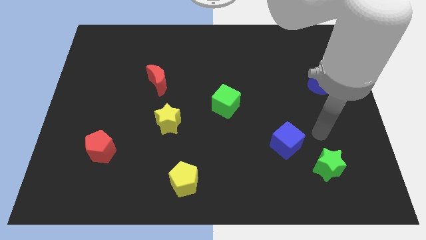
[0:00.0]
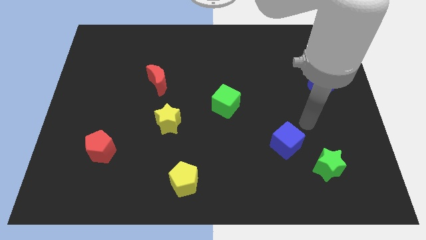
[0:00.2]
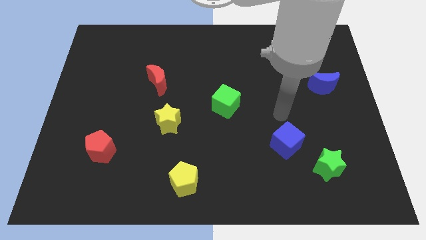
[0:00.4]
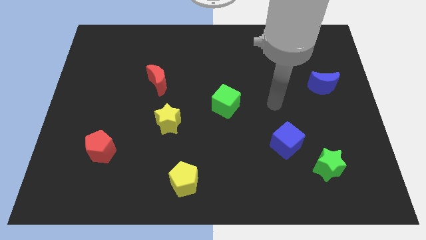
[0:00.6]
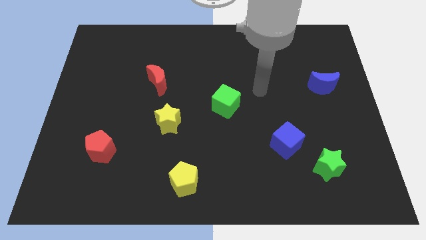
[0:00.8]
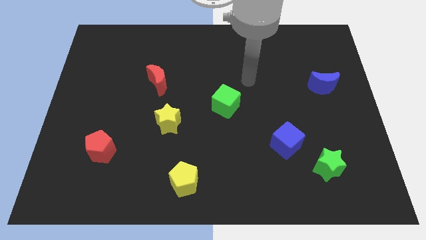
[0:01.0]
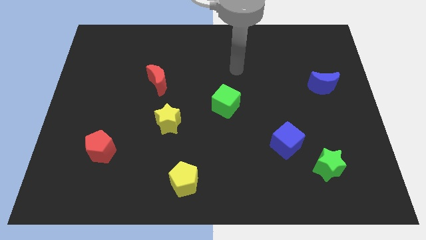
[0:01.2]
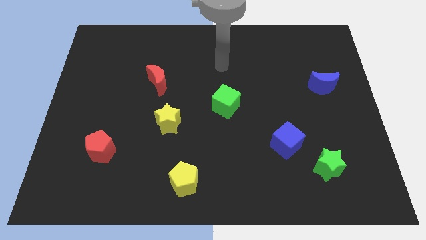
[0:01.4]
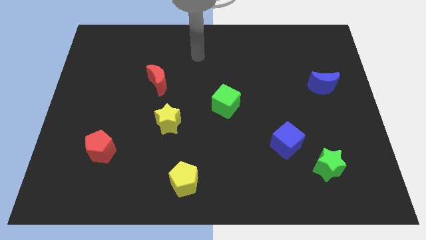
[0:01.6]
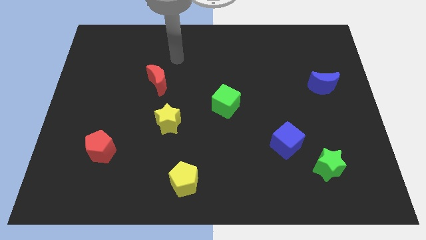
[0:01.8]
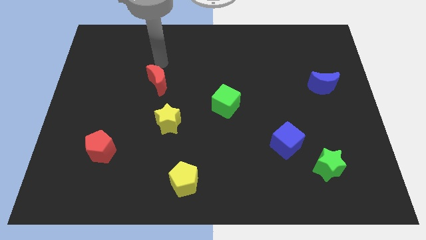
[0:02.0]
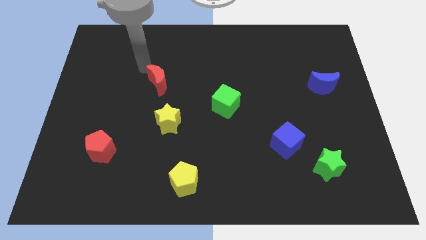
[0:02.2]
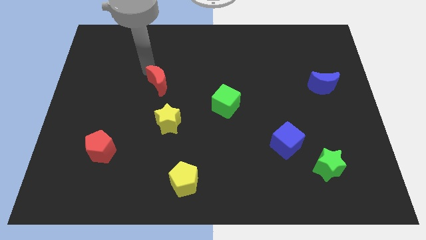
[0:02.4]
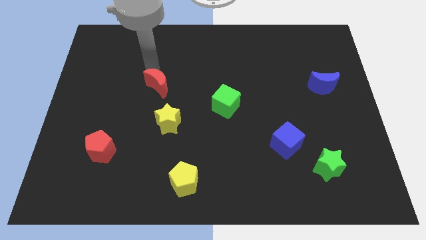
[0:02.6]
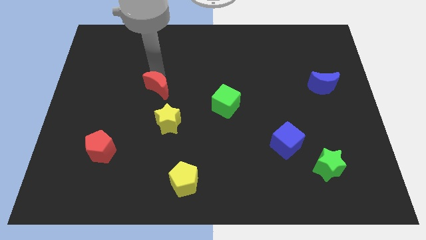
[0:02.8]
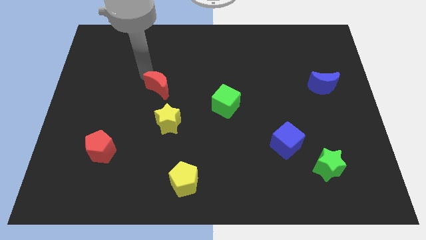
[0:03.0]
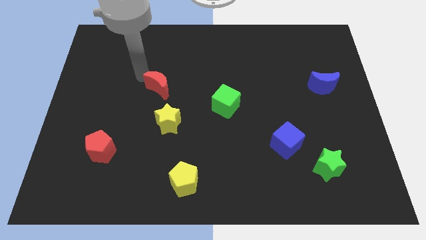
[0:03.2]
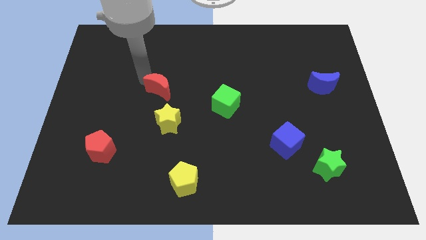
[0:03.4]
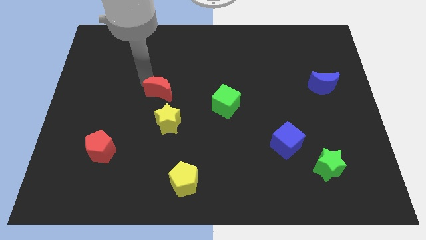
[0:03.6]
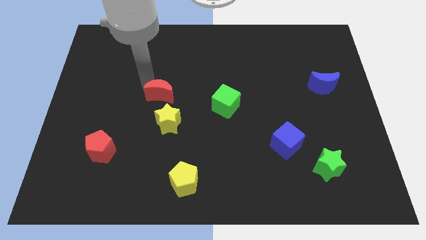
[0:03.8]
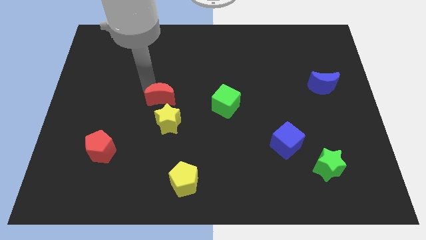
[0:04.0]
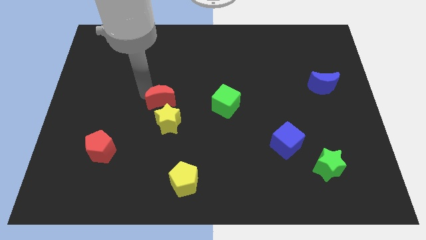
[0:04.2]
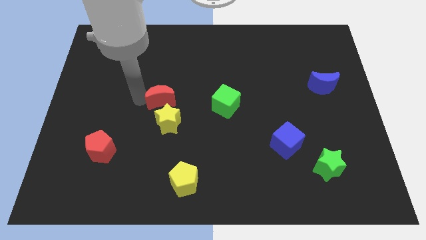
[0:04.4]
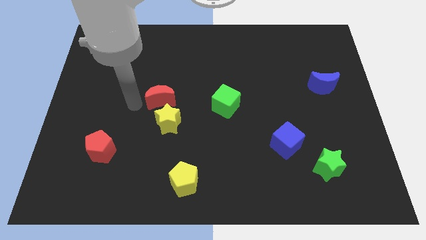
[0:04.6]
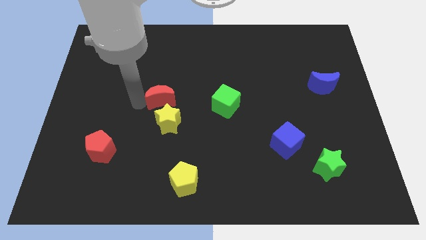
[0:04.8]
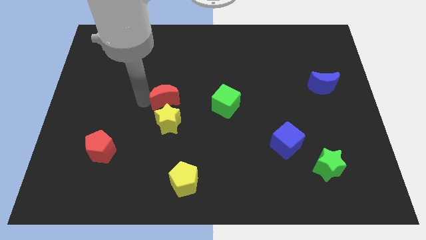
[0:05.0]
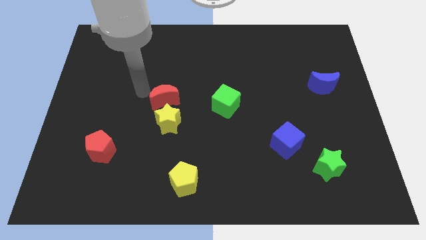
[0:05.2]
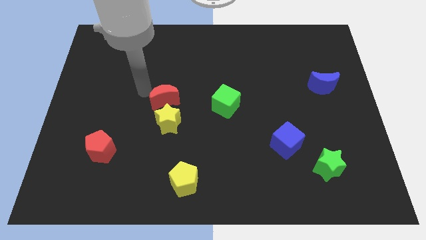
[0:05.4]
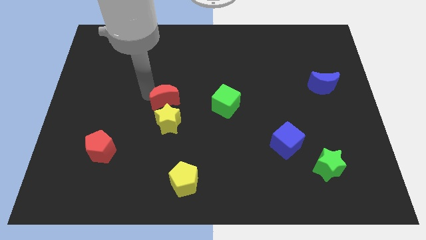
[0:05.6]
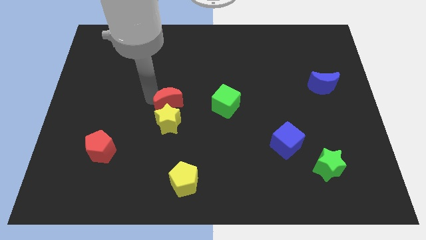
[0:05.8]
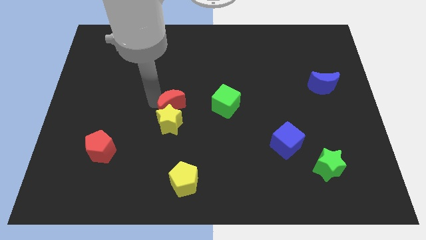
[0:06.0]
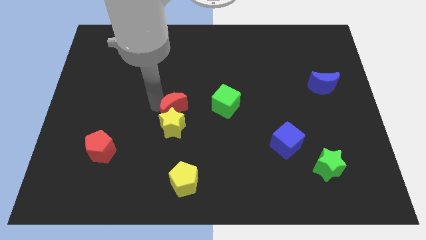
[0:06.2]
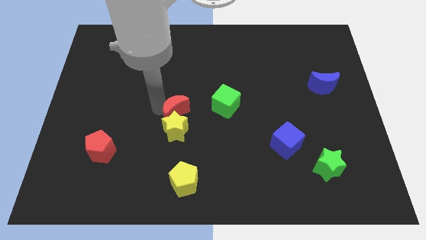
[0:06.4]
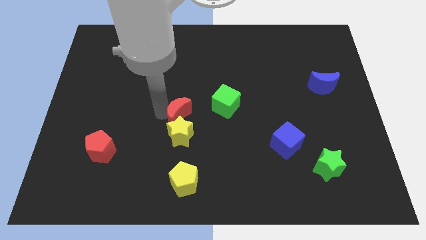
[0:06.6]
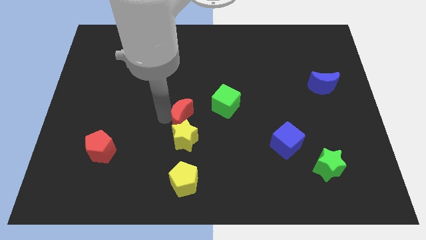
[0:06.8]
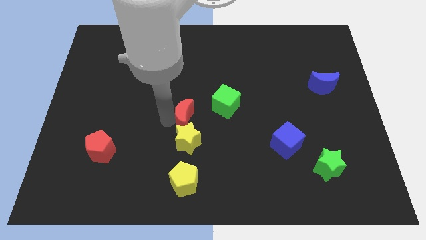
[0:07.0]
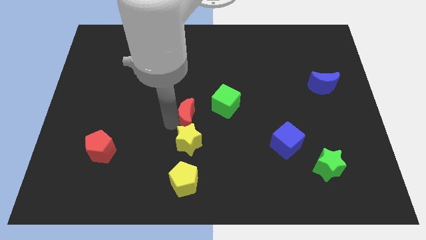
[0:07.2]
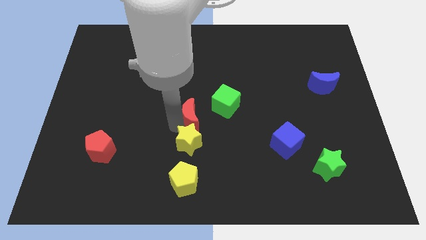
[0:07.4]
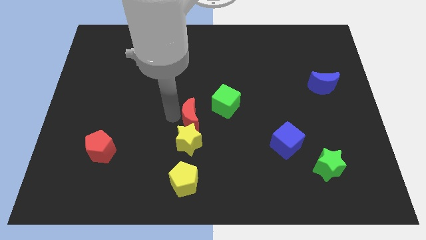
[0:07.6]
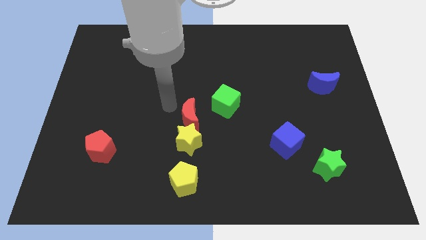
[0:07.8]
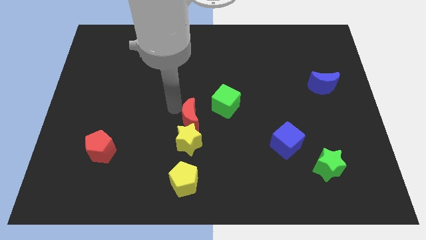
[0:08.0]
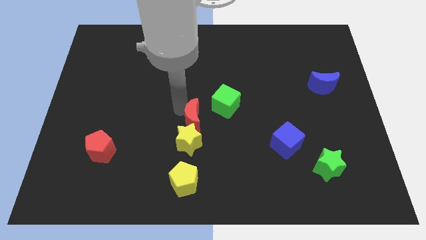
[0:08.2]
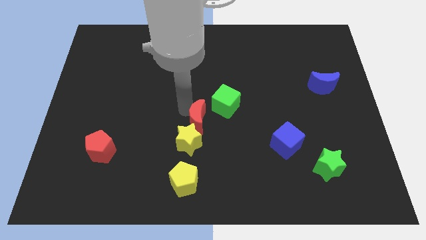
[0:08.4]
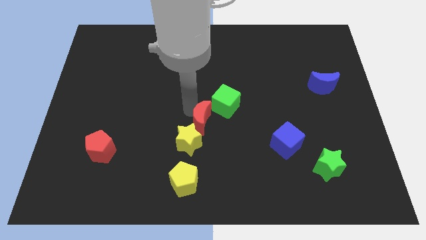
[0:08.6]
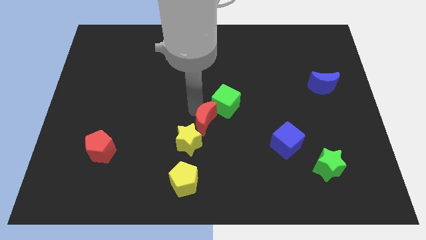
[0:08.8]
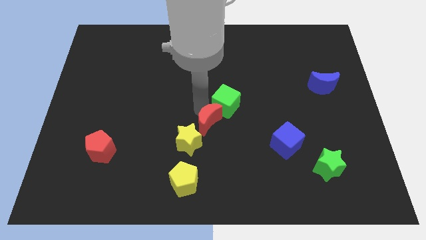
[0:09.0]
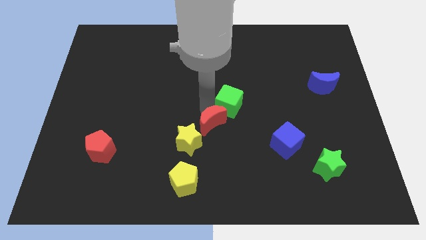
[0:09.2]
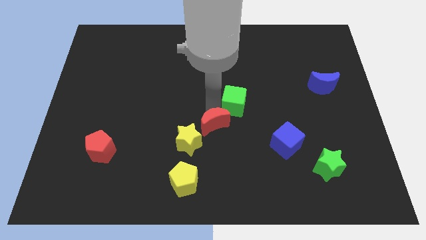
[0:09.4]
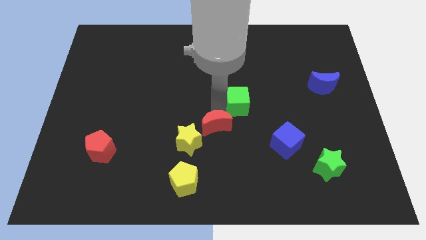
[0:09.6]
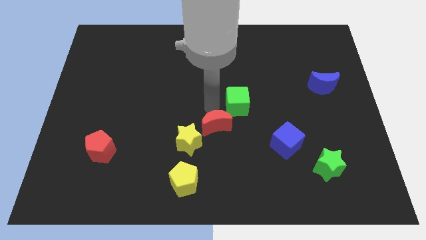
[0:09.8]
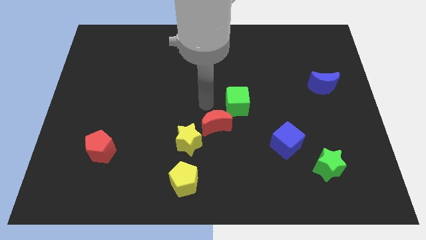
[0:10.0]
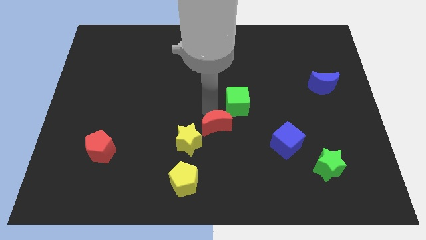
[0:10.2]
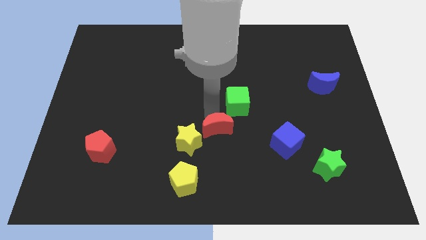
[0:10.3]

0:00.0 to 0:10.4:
slide the red moon downwards and to the right diagonally

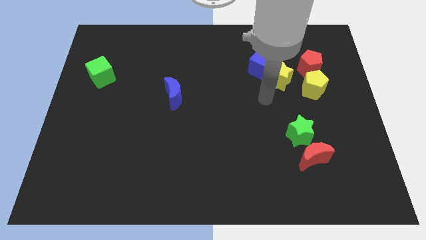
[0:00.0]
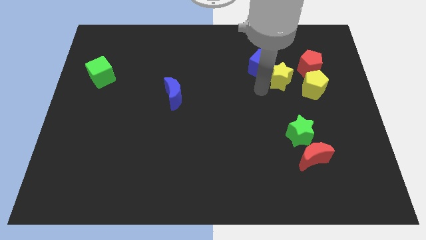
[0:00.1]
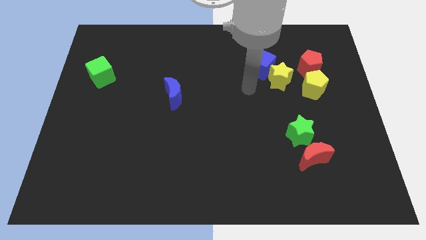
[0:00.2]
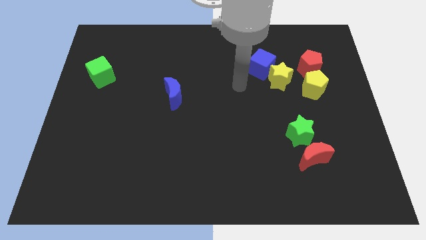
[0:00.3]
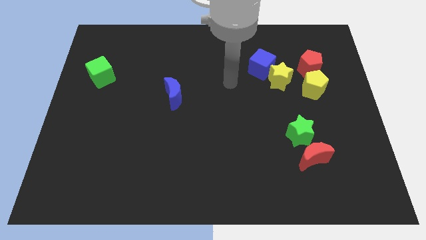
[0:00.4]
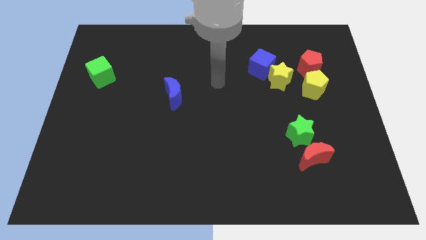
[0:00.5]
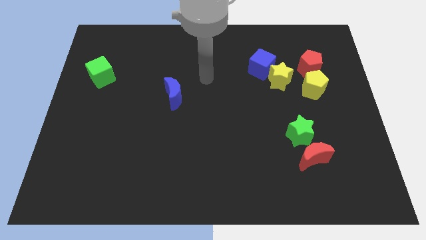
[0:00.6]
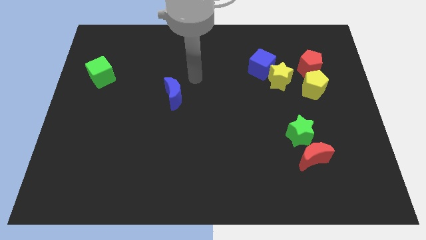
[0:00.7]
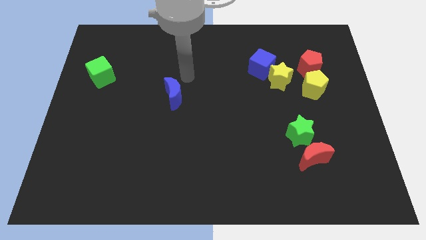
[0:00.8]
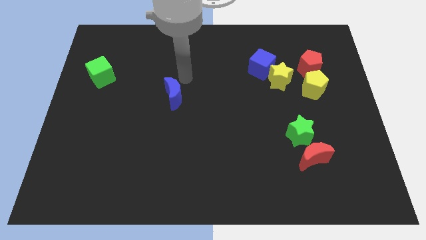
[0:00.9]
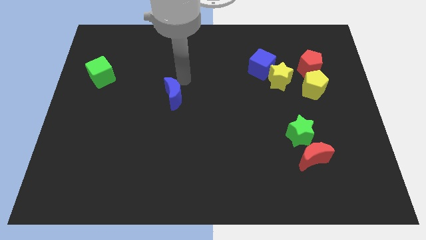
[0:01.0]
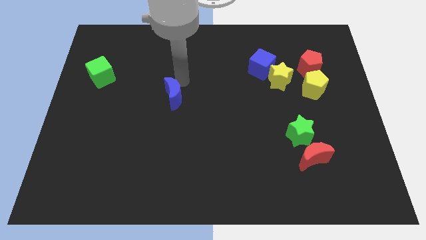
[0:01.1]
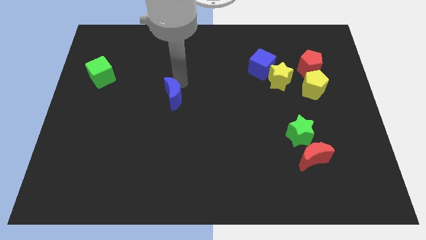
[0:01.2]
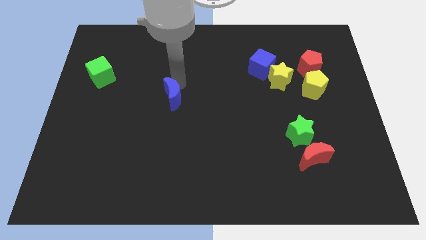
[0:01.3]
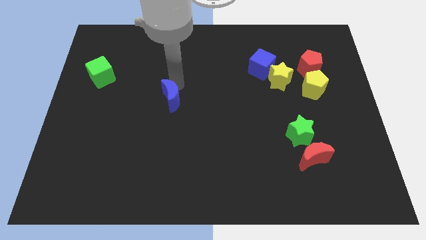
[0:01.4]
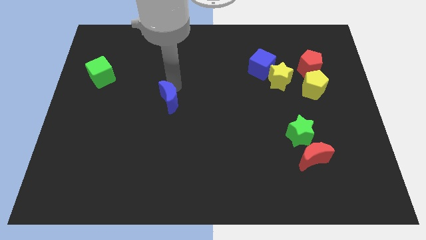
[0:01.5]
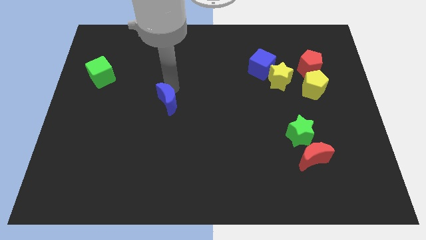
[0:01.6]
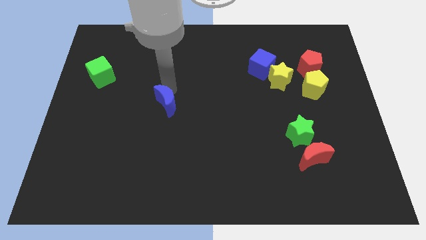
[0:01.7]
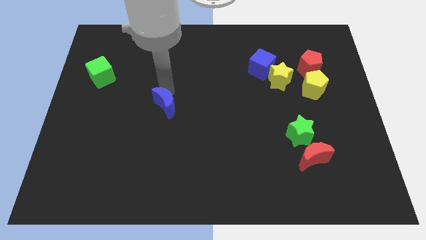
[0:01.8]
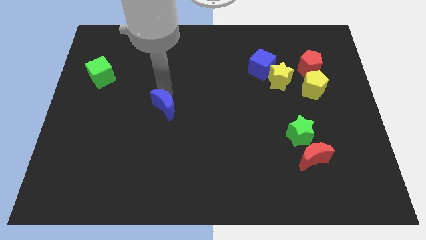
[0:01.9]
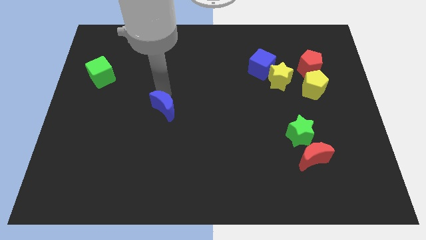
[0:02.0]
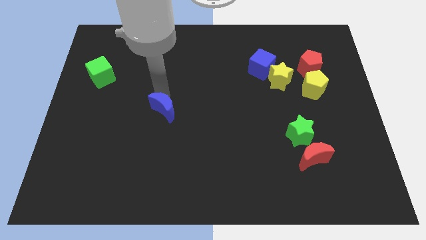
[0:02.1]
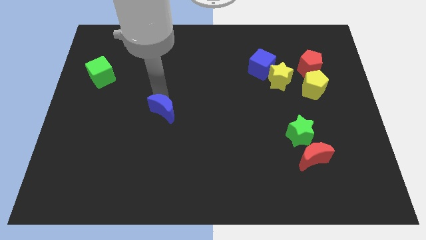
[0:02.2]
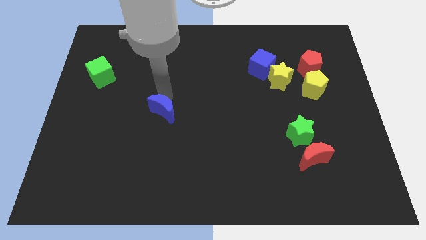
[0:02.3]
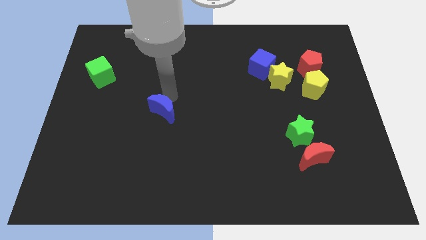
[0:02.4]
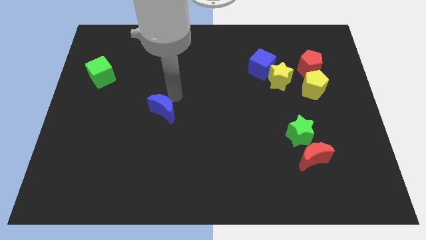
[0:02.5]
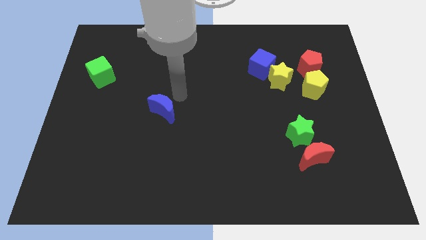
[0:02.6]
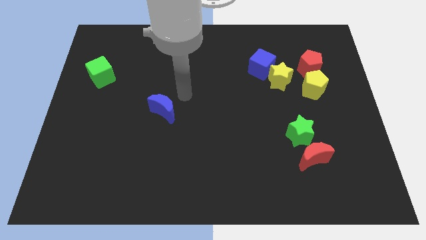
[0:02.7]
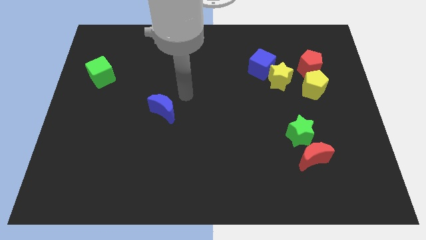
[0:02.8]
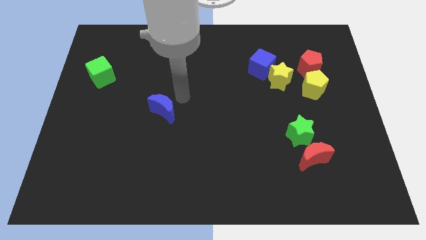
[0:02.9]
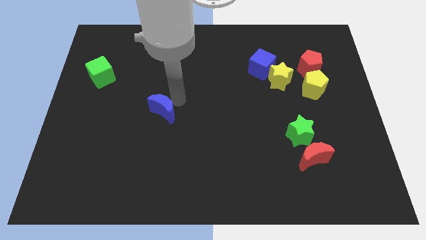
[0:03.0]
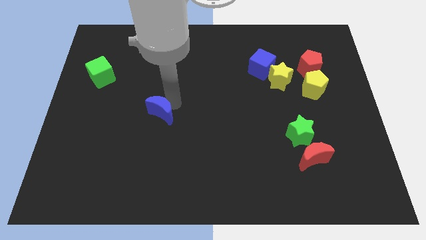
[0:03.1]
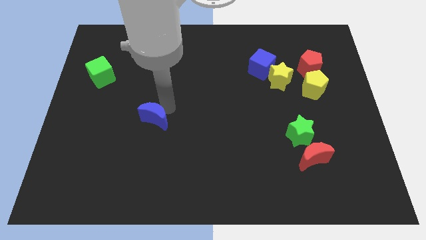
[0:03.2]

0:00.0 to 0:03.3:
push the blue moon down and to the left diagonally a little
